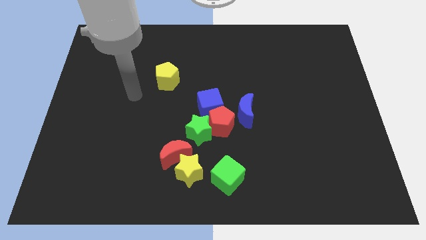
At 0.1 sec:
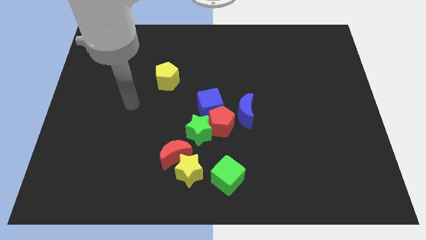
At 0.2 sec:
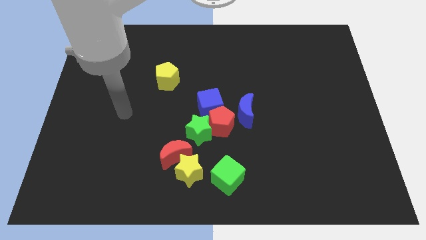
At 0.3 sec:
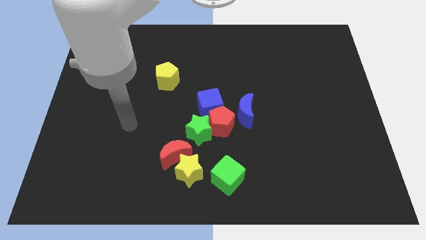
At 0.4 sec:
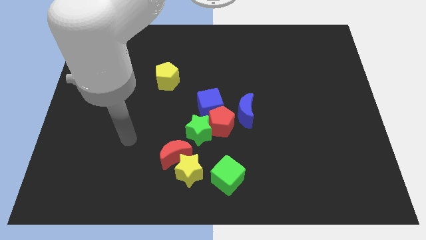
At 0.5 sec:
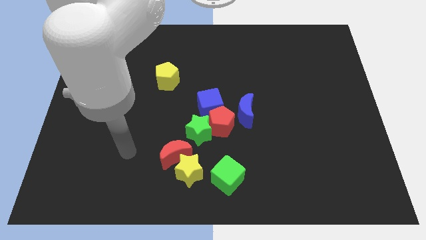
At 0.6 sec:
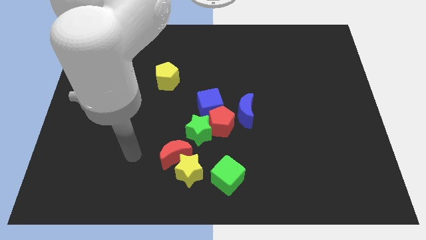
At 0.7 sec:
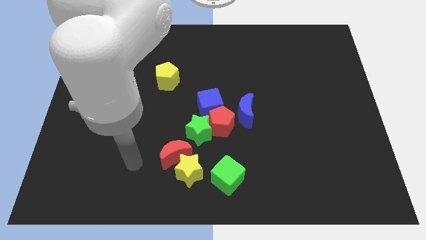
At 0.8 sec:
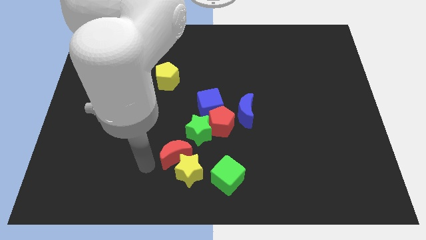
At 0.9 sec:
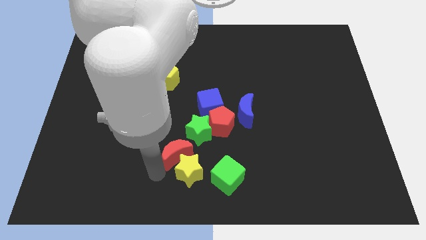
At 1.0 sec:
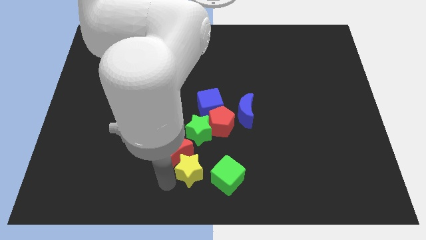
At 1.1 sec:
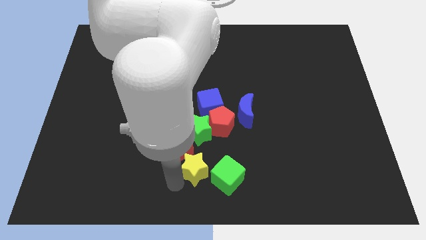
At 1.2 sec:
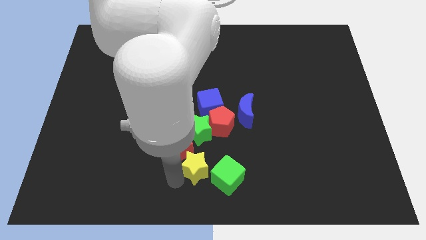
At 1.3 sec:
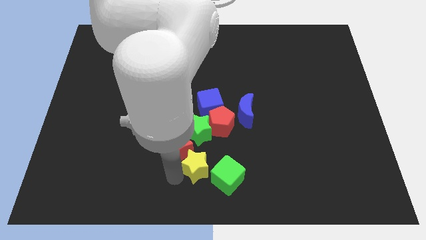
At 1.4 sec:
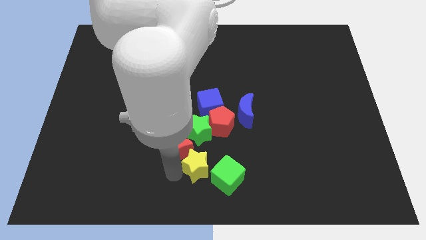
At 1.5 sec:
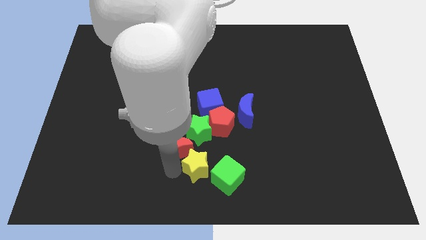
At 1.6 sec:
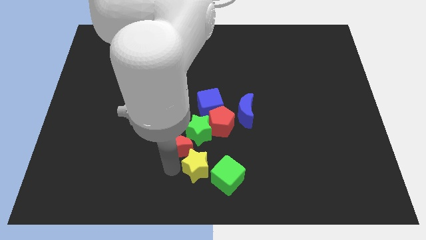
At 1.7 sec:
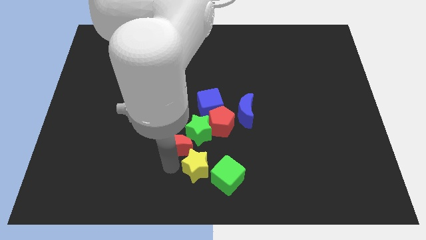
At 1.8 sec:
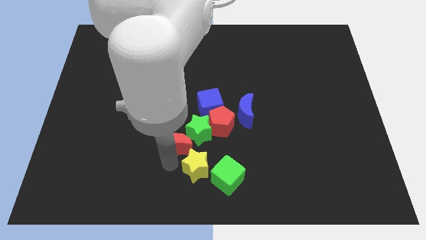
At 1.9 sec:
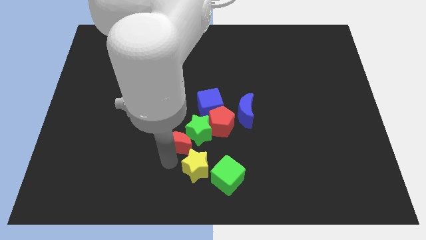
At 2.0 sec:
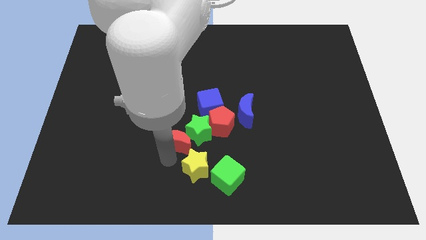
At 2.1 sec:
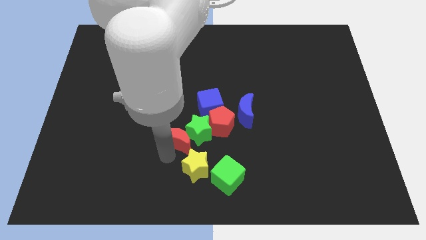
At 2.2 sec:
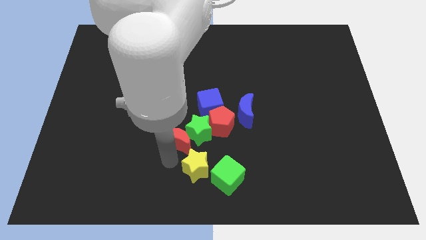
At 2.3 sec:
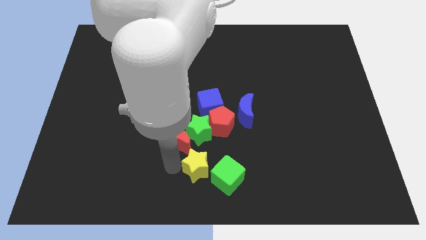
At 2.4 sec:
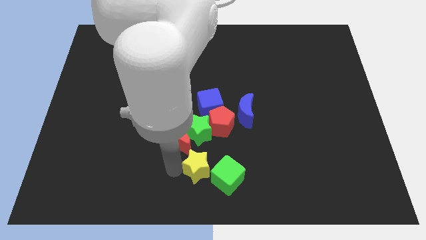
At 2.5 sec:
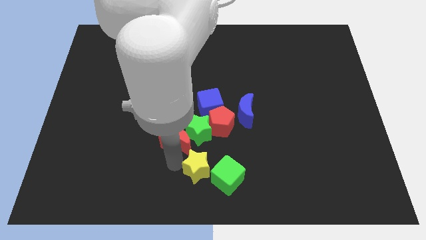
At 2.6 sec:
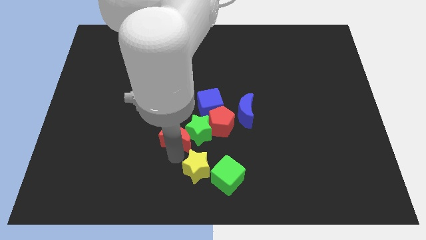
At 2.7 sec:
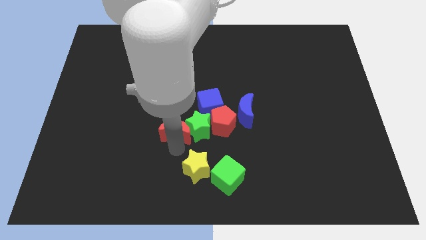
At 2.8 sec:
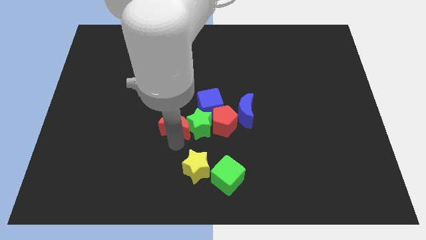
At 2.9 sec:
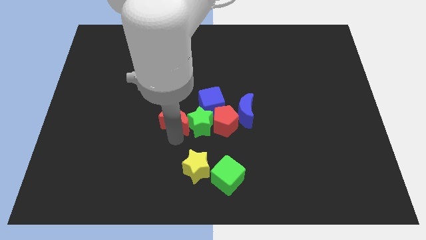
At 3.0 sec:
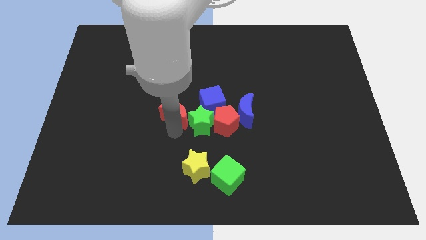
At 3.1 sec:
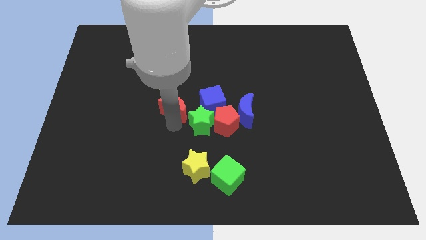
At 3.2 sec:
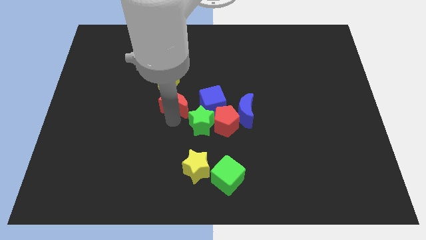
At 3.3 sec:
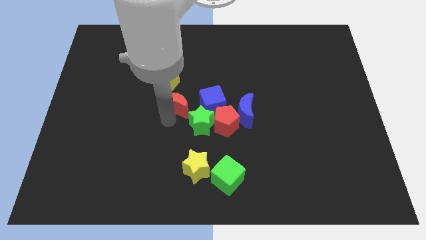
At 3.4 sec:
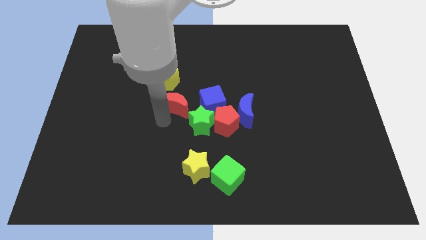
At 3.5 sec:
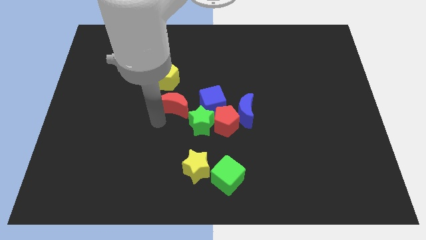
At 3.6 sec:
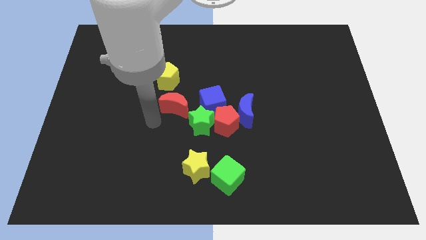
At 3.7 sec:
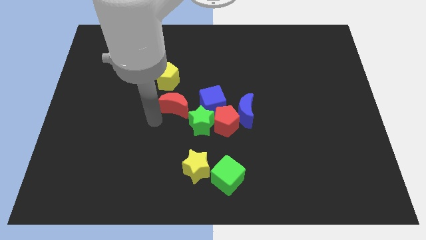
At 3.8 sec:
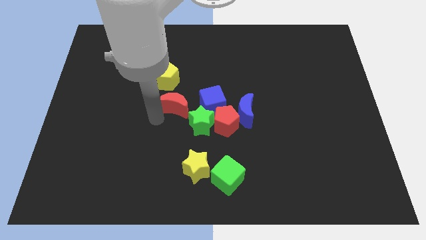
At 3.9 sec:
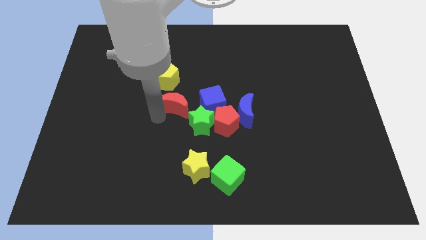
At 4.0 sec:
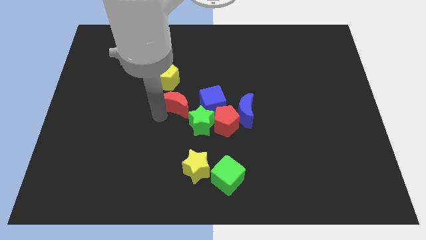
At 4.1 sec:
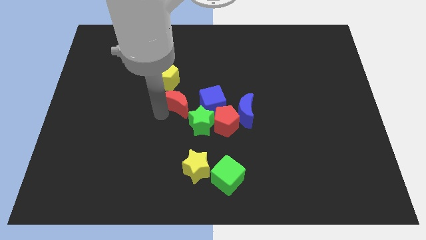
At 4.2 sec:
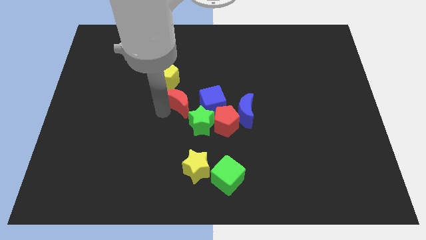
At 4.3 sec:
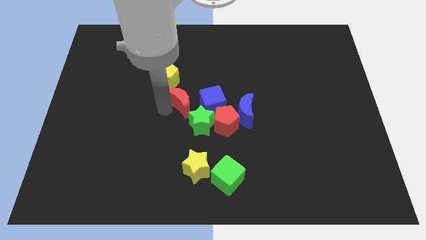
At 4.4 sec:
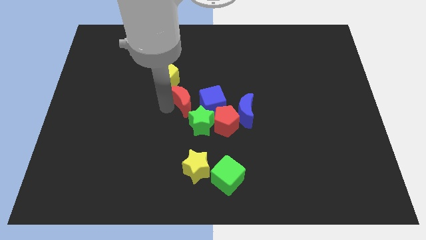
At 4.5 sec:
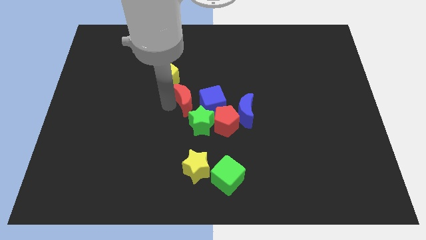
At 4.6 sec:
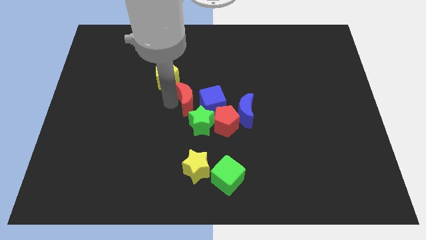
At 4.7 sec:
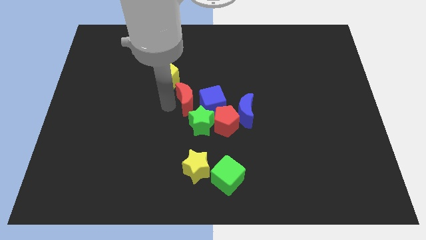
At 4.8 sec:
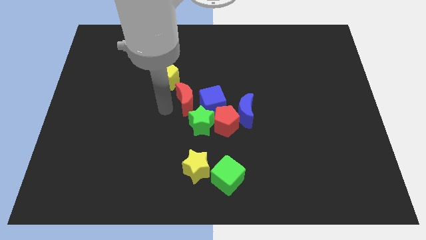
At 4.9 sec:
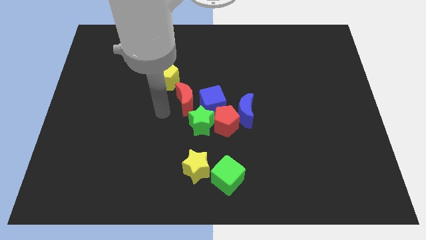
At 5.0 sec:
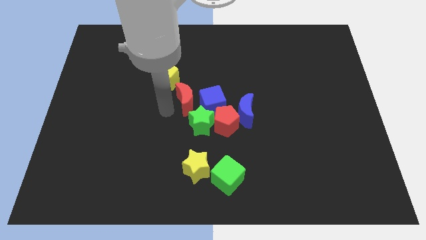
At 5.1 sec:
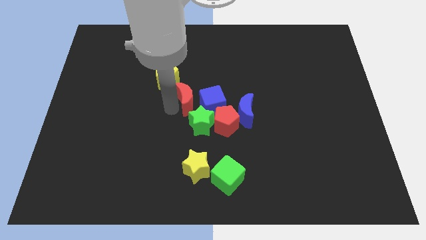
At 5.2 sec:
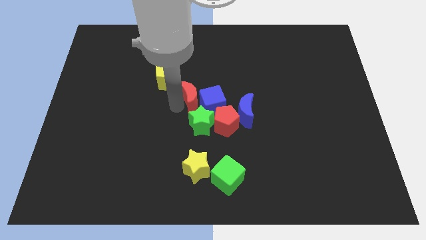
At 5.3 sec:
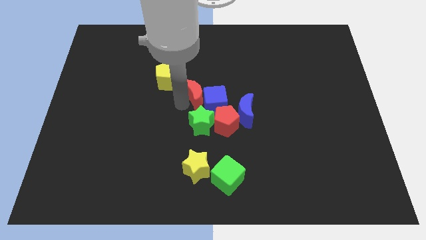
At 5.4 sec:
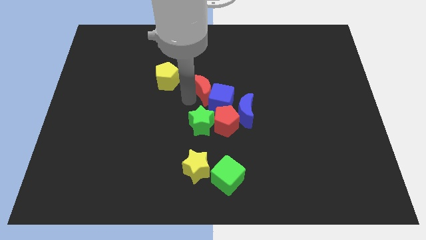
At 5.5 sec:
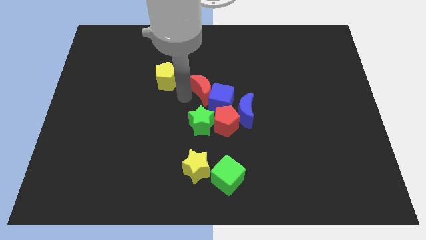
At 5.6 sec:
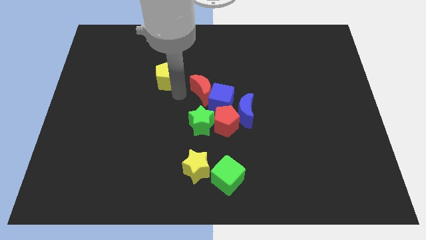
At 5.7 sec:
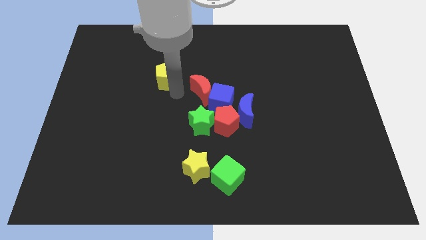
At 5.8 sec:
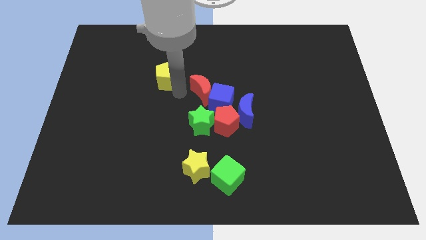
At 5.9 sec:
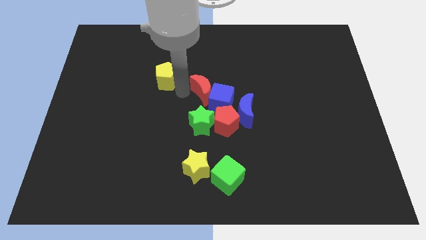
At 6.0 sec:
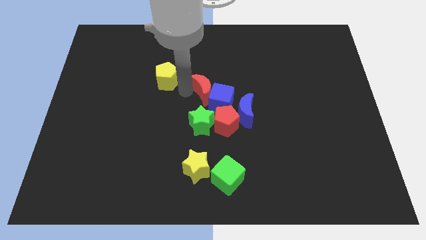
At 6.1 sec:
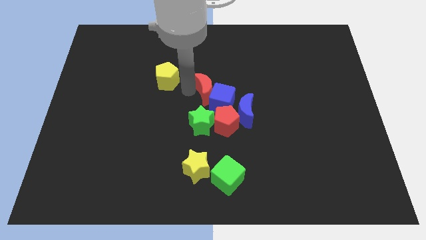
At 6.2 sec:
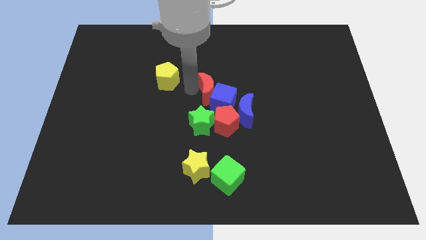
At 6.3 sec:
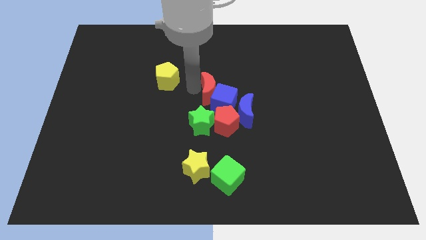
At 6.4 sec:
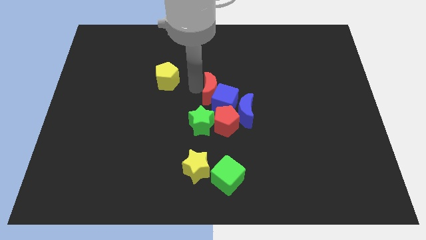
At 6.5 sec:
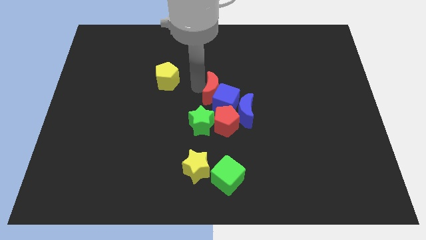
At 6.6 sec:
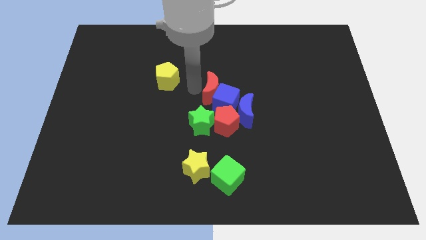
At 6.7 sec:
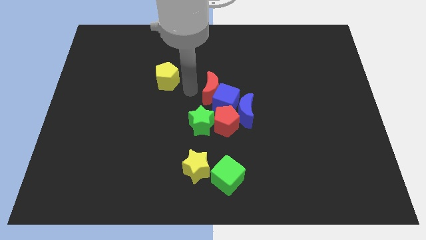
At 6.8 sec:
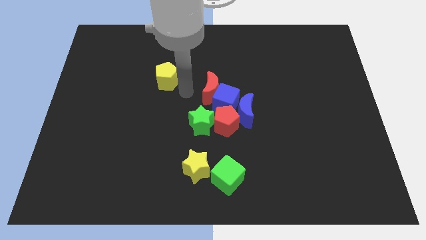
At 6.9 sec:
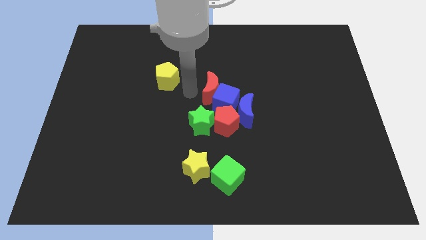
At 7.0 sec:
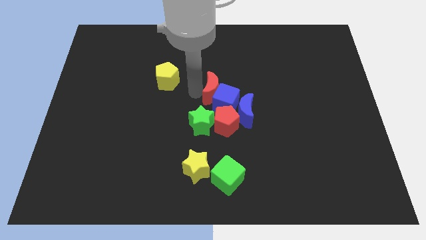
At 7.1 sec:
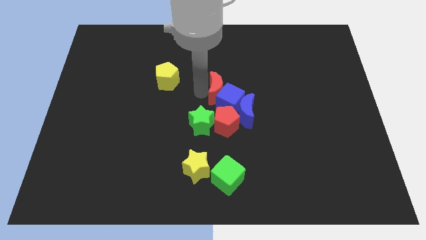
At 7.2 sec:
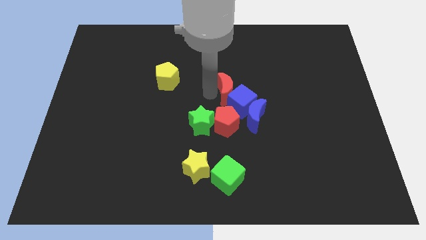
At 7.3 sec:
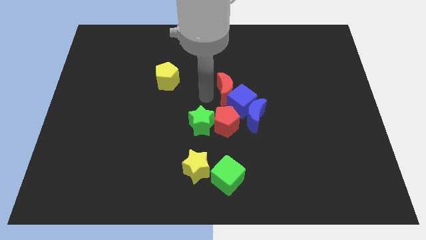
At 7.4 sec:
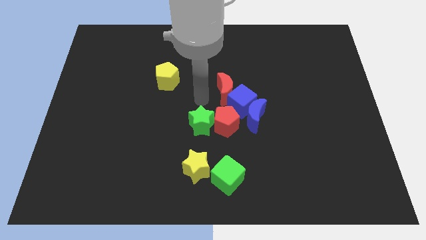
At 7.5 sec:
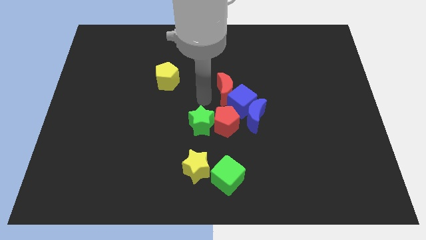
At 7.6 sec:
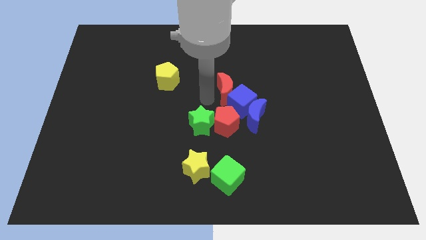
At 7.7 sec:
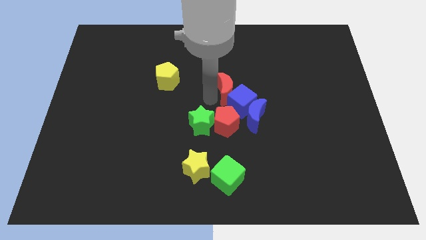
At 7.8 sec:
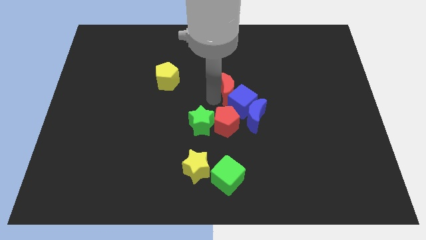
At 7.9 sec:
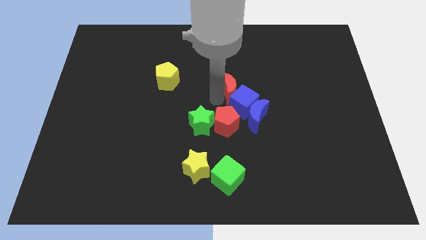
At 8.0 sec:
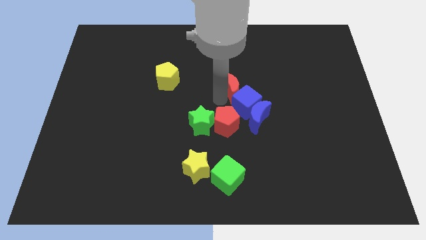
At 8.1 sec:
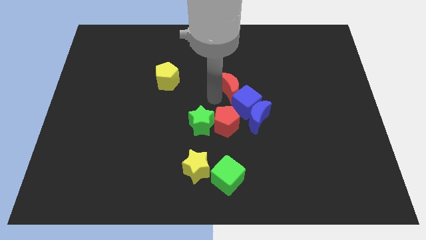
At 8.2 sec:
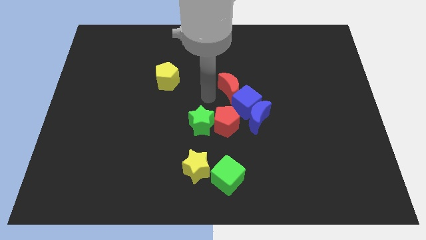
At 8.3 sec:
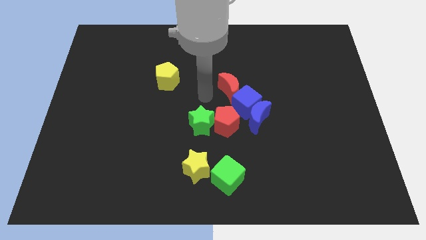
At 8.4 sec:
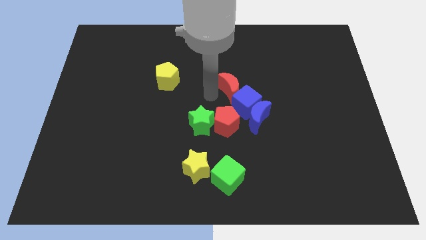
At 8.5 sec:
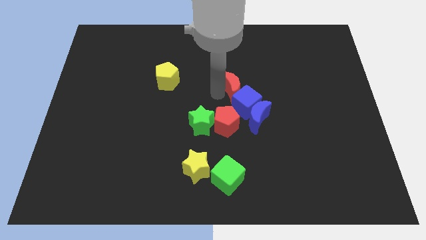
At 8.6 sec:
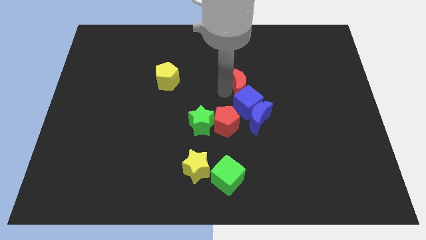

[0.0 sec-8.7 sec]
slide the red moon to the top of the blue moon
